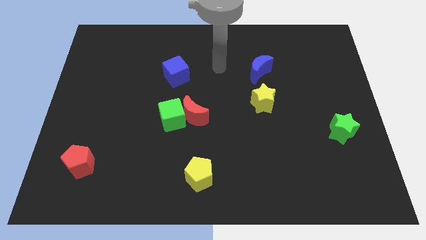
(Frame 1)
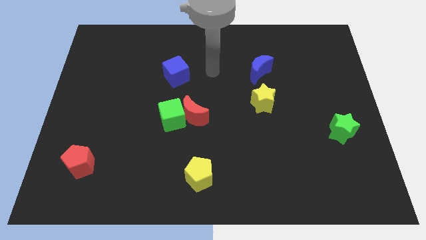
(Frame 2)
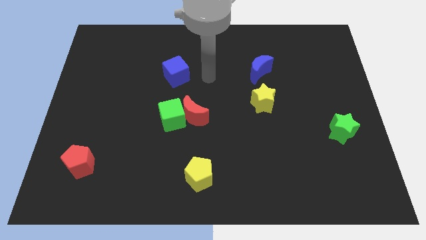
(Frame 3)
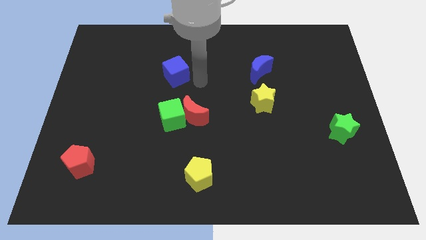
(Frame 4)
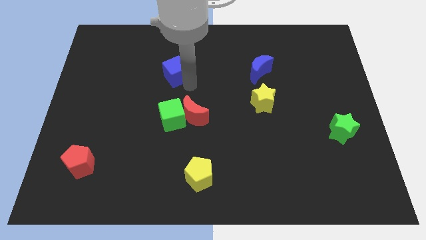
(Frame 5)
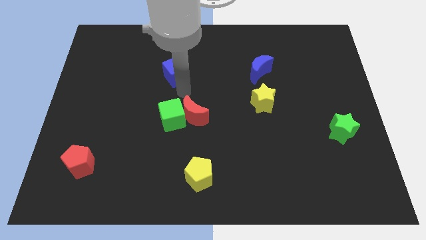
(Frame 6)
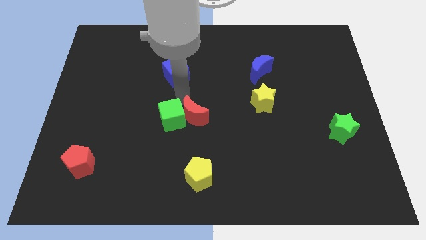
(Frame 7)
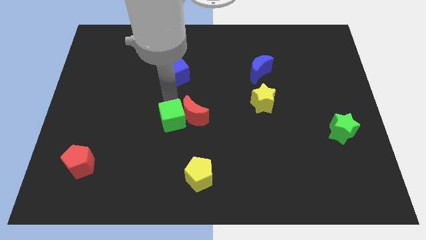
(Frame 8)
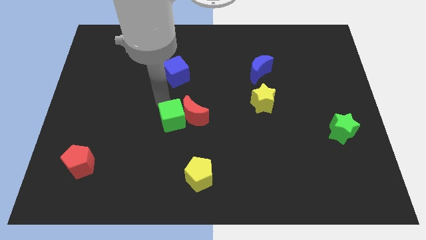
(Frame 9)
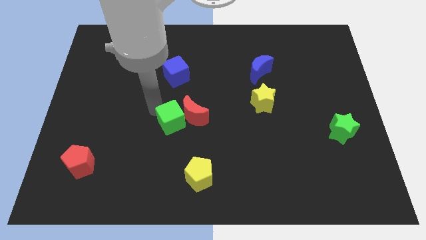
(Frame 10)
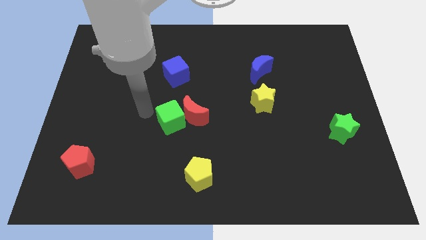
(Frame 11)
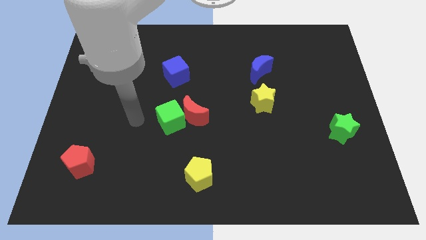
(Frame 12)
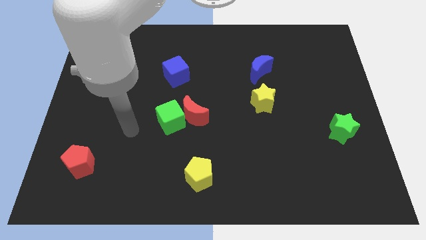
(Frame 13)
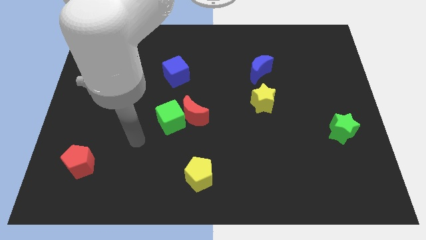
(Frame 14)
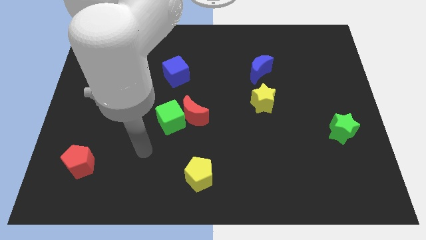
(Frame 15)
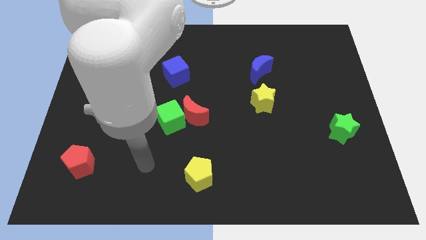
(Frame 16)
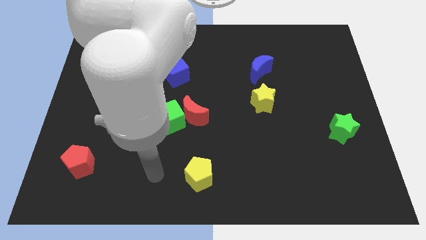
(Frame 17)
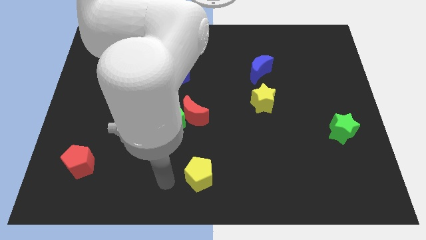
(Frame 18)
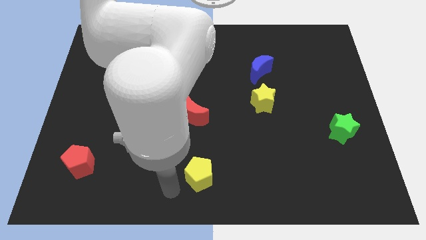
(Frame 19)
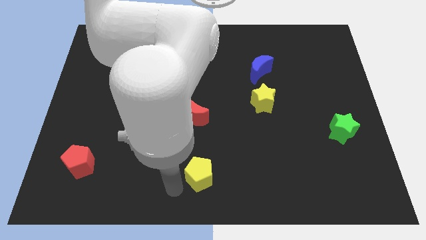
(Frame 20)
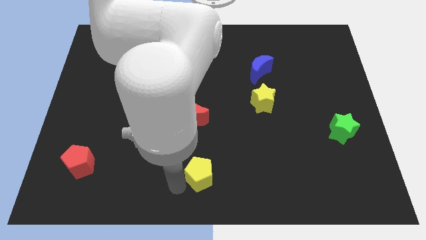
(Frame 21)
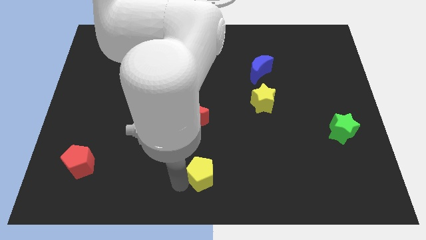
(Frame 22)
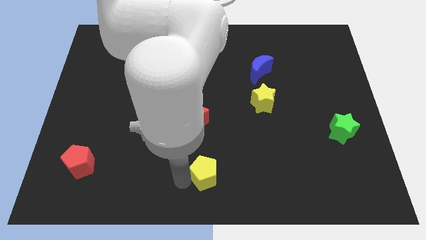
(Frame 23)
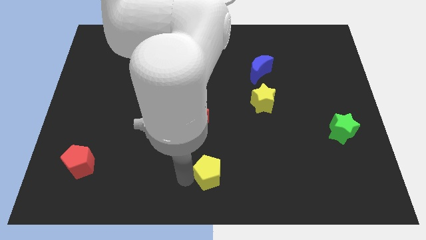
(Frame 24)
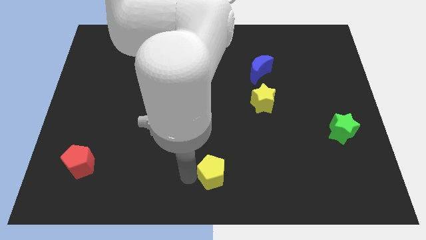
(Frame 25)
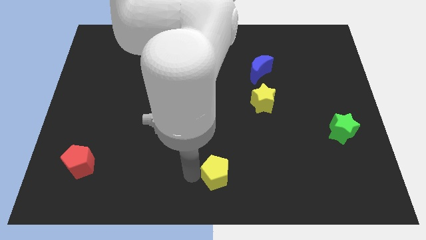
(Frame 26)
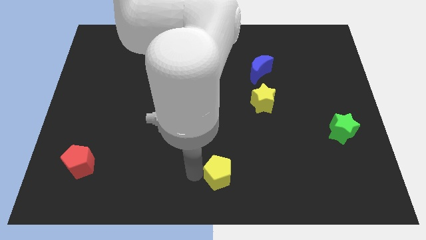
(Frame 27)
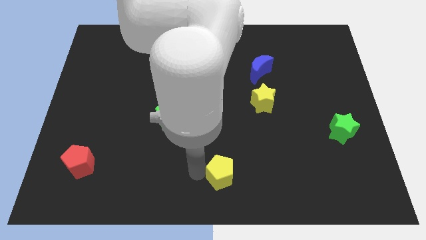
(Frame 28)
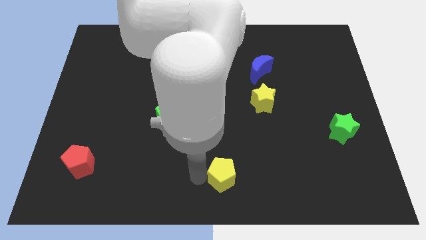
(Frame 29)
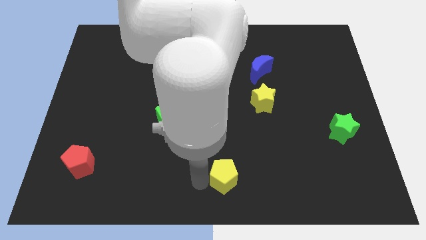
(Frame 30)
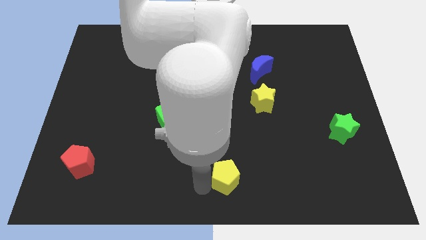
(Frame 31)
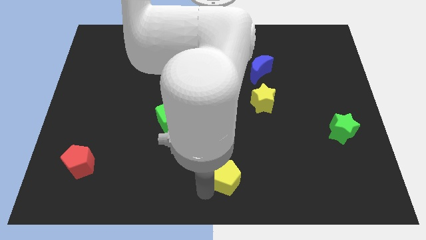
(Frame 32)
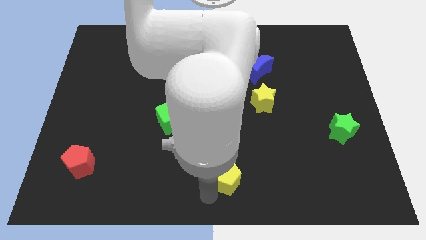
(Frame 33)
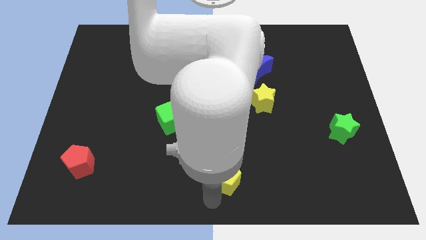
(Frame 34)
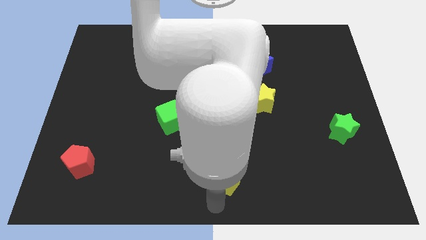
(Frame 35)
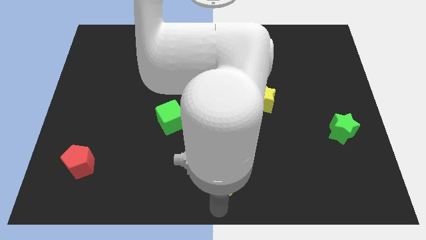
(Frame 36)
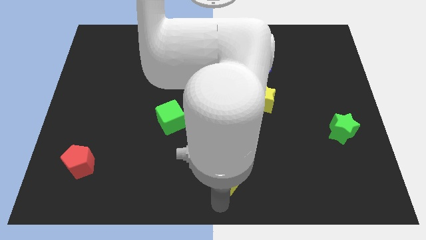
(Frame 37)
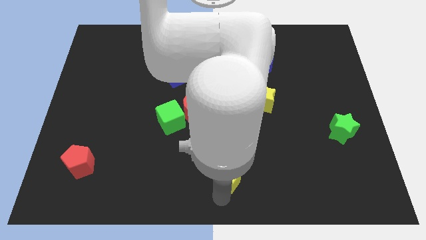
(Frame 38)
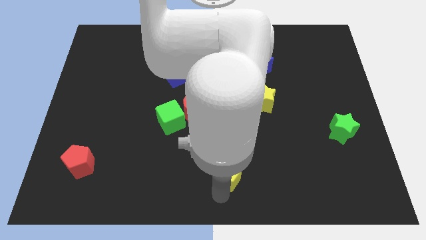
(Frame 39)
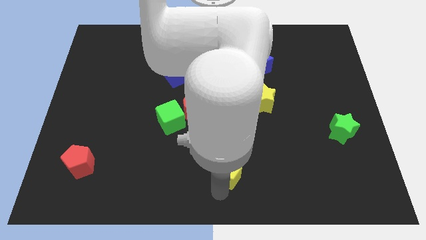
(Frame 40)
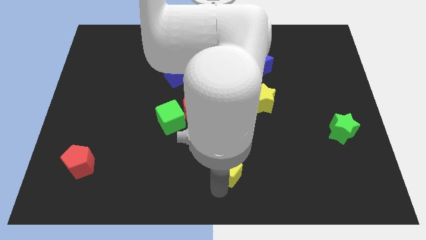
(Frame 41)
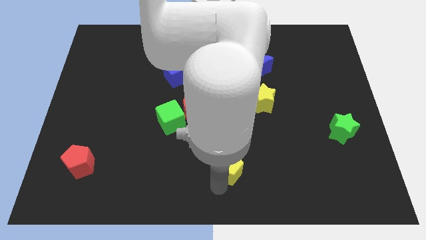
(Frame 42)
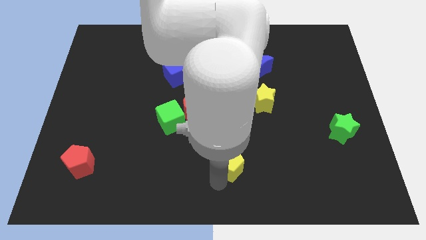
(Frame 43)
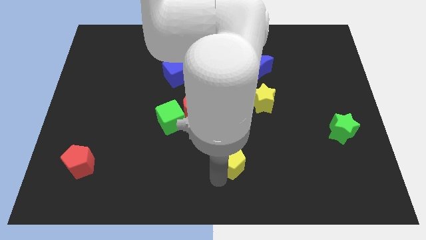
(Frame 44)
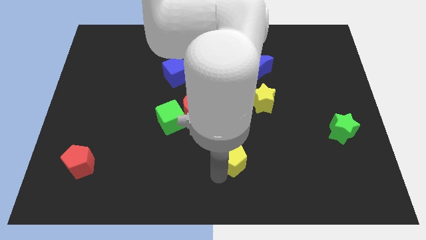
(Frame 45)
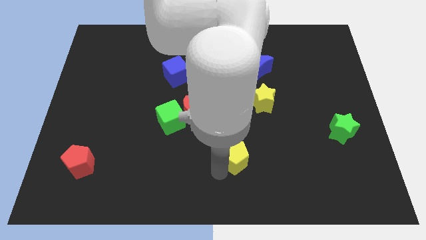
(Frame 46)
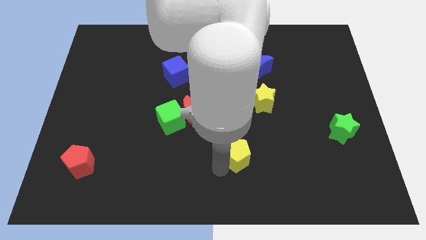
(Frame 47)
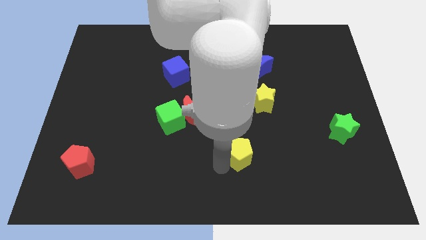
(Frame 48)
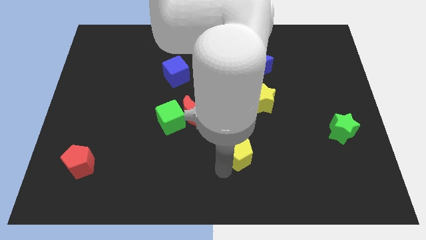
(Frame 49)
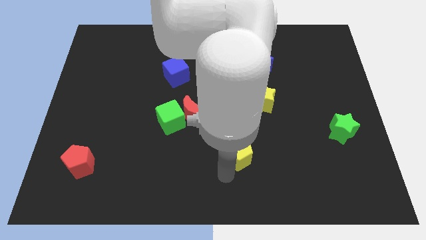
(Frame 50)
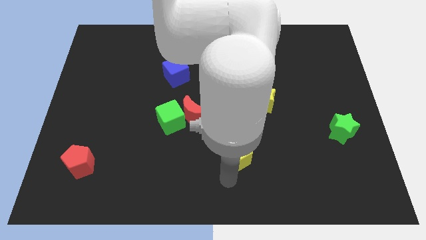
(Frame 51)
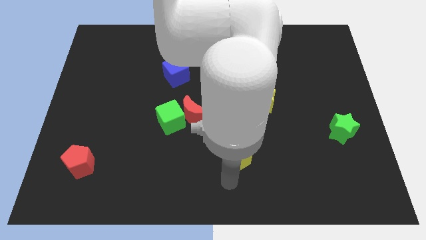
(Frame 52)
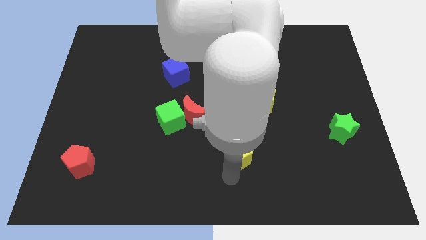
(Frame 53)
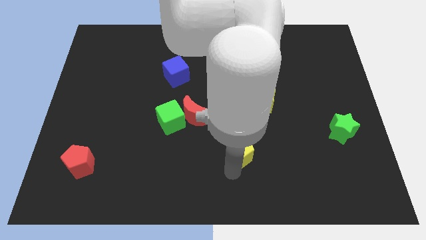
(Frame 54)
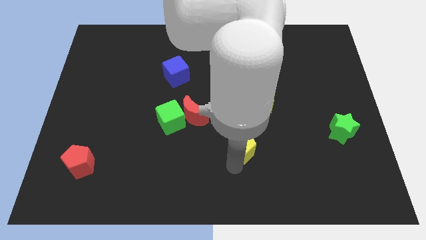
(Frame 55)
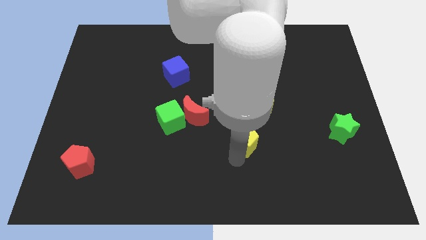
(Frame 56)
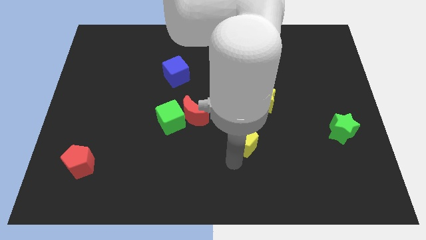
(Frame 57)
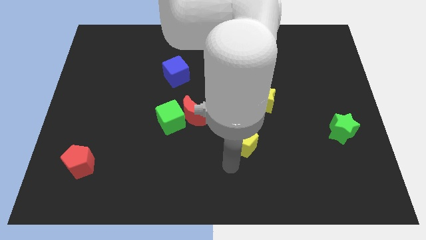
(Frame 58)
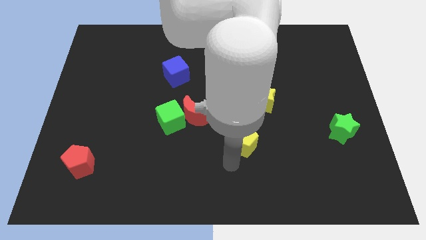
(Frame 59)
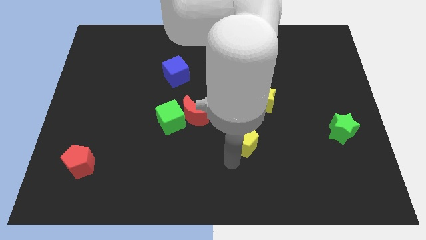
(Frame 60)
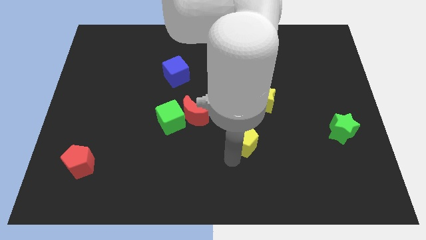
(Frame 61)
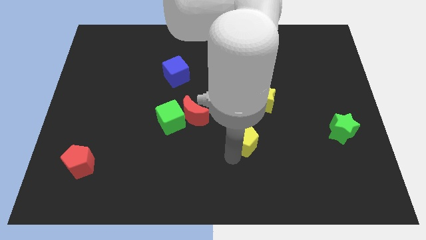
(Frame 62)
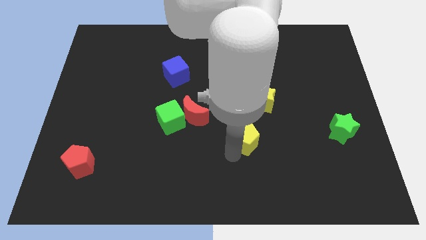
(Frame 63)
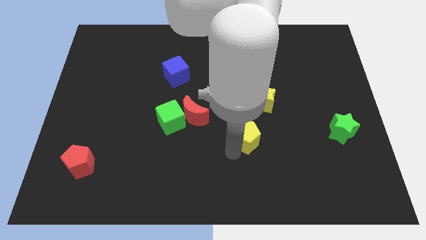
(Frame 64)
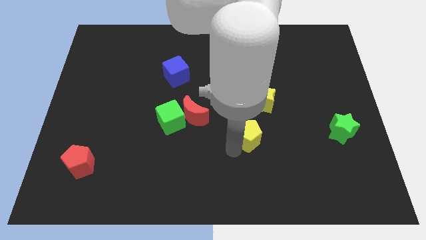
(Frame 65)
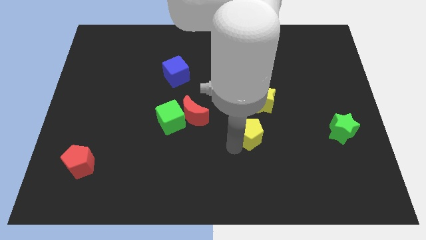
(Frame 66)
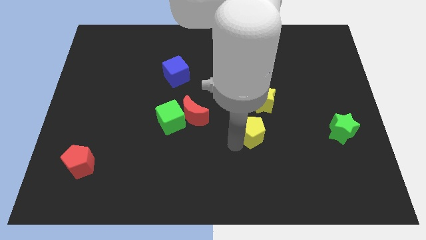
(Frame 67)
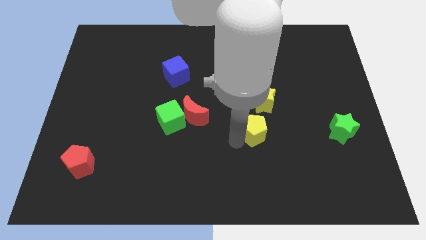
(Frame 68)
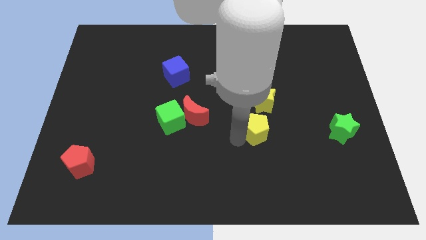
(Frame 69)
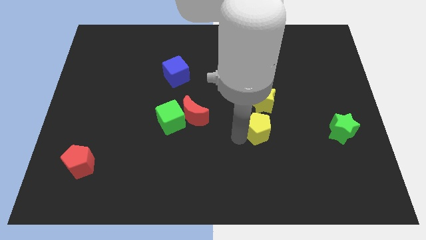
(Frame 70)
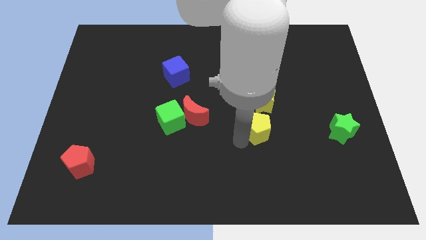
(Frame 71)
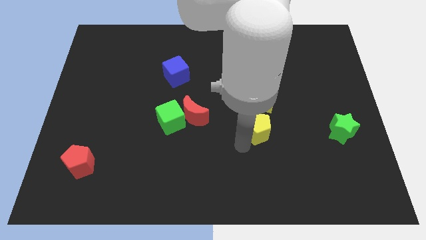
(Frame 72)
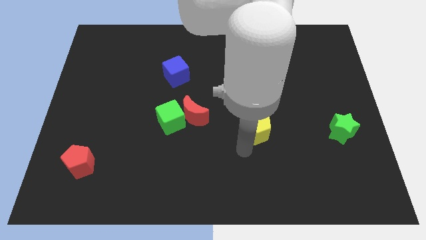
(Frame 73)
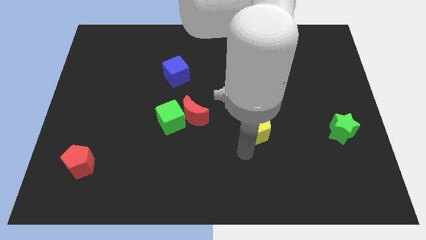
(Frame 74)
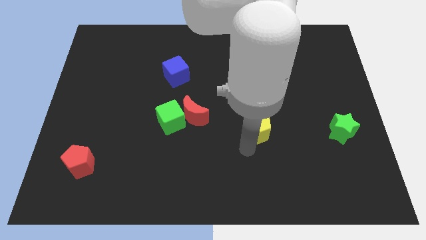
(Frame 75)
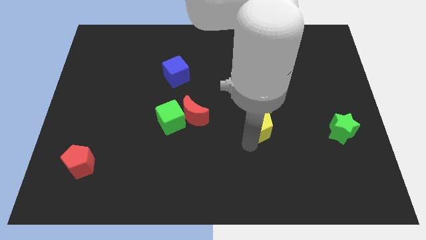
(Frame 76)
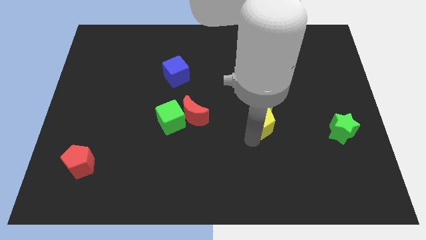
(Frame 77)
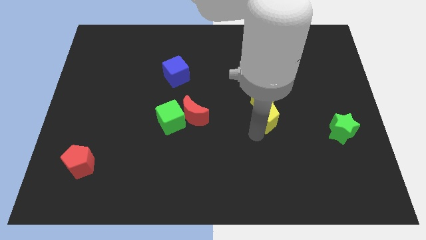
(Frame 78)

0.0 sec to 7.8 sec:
push the yellow pentagon below the blue moon
